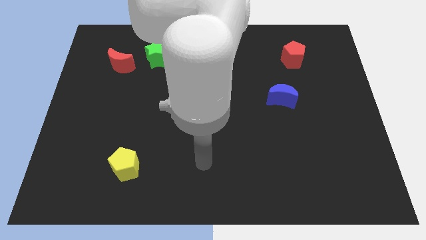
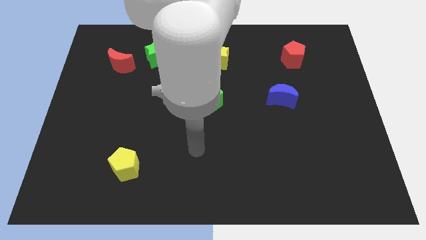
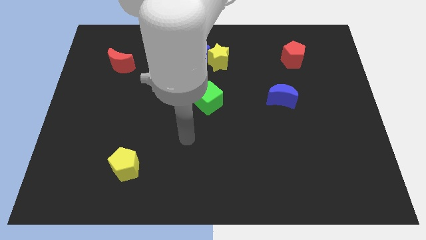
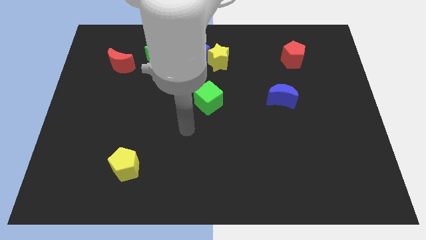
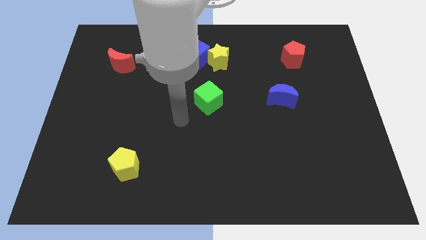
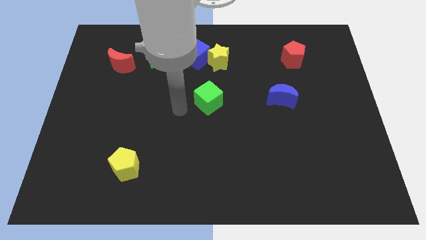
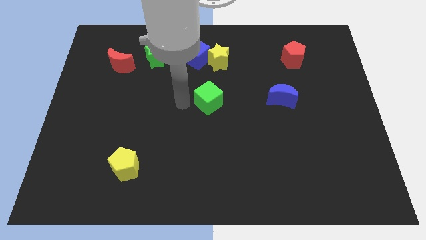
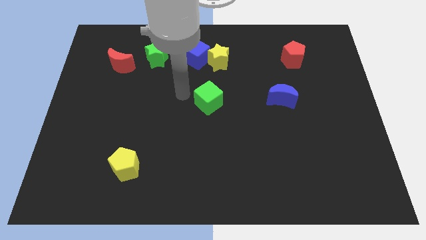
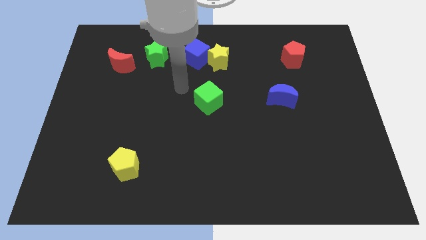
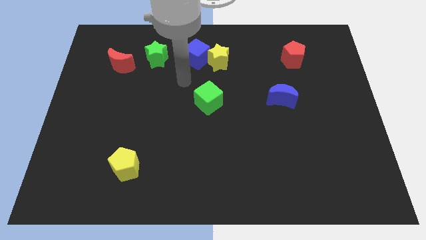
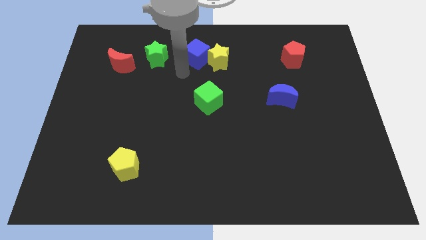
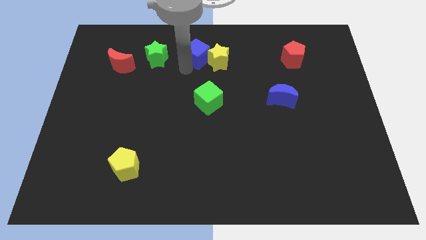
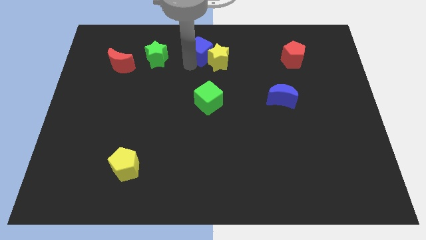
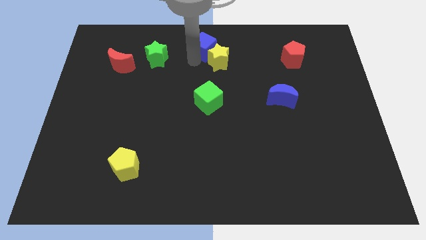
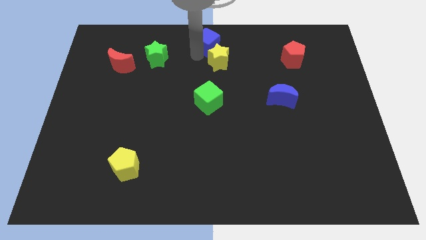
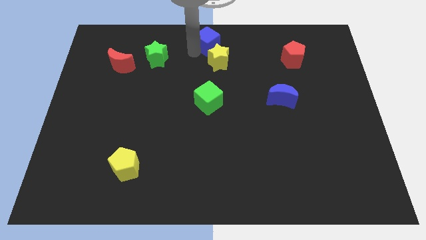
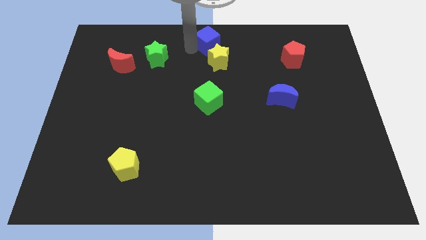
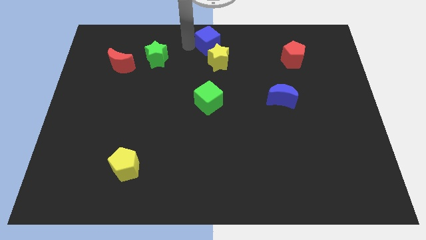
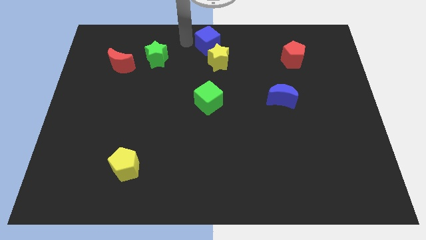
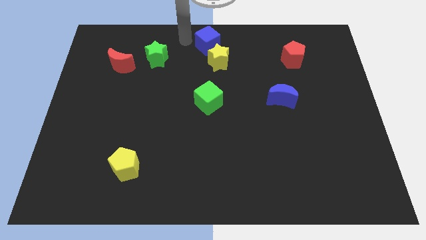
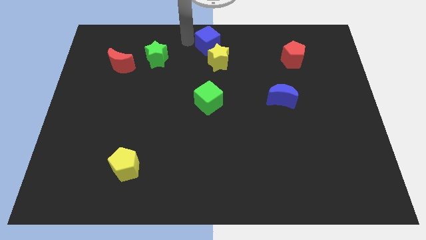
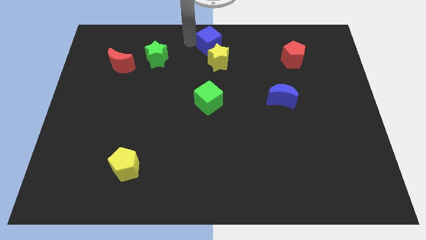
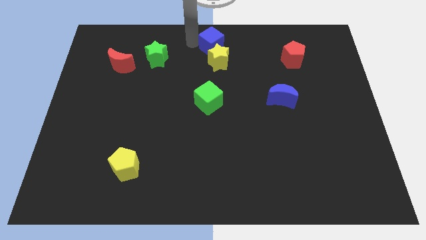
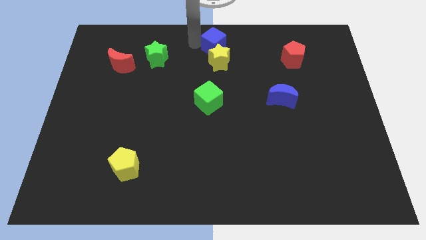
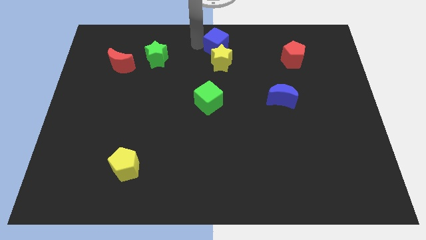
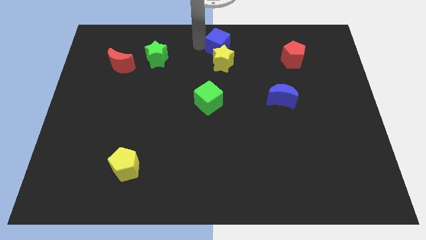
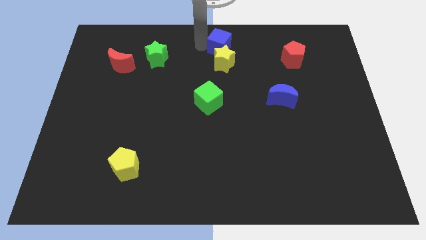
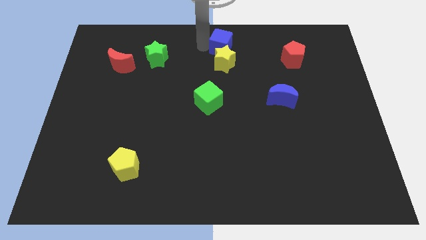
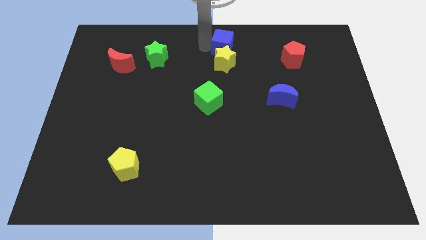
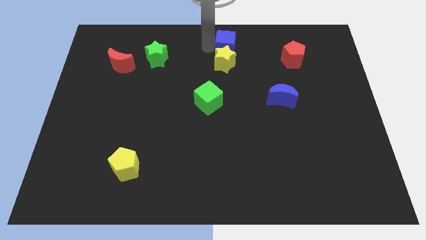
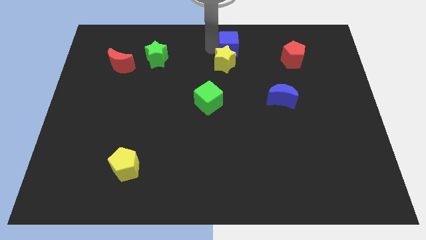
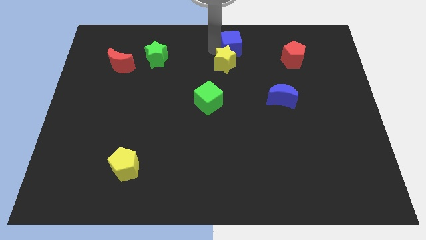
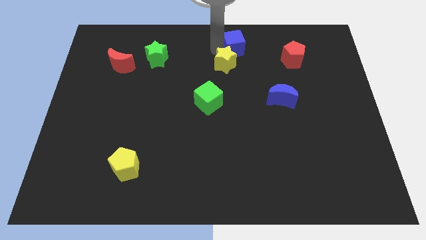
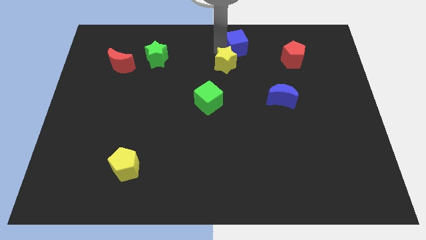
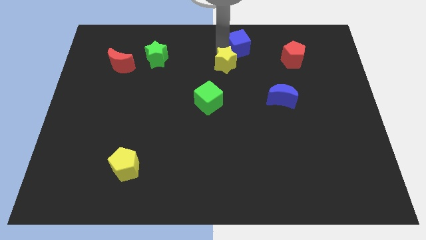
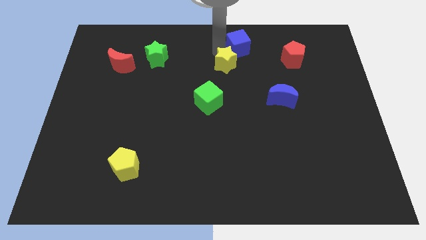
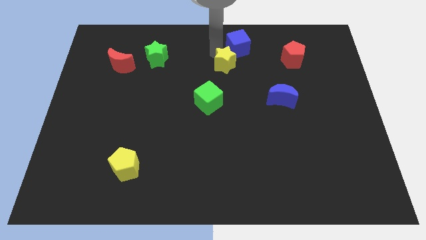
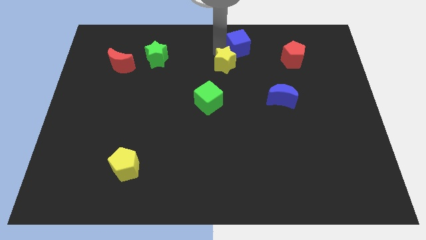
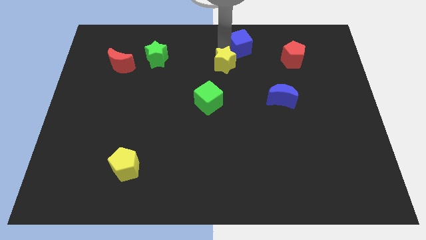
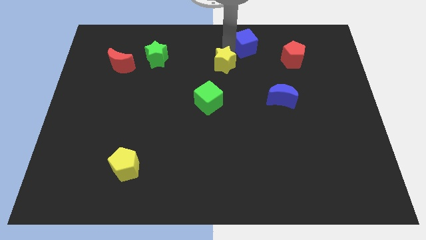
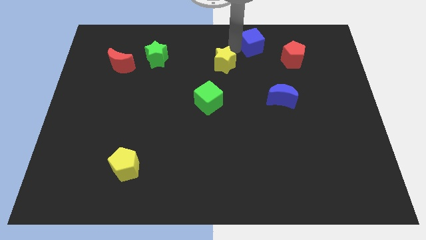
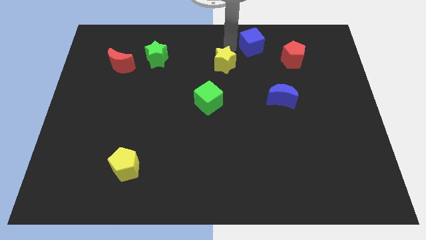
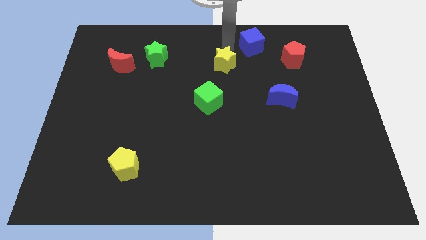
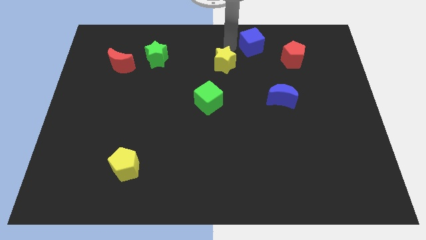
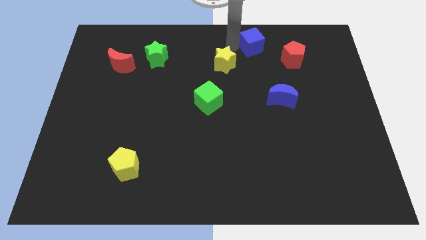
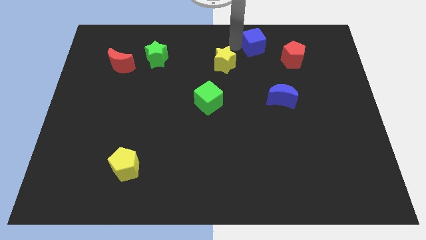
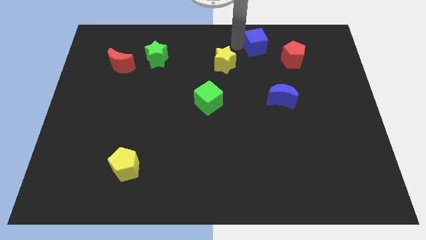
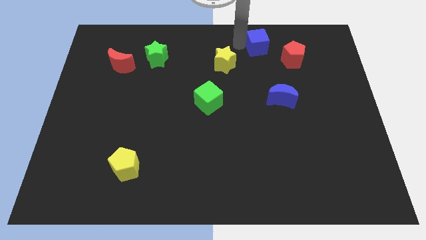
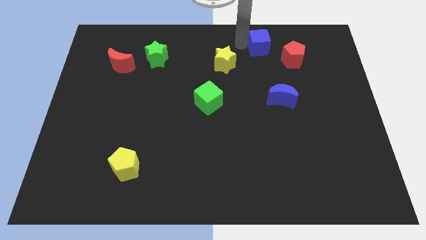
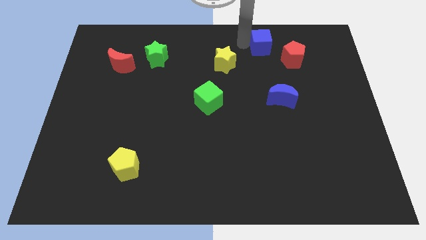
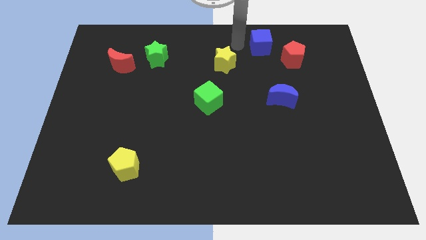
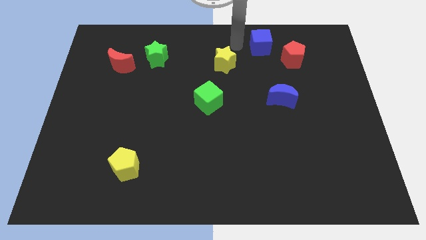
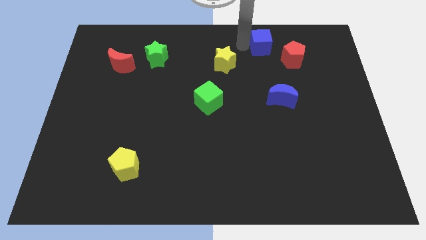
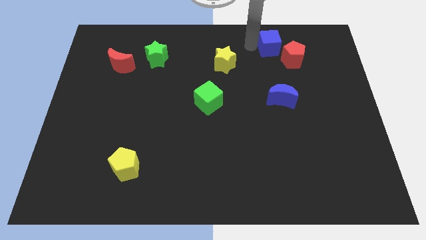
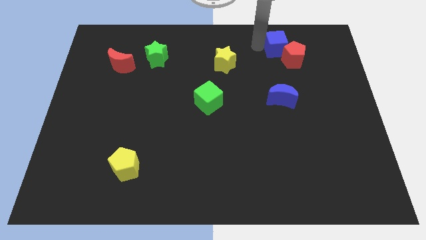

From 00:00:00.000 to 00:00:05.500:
slide the blue cube to the right

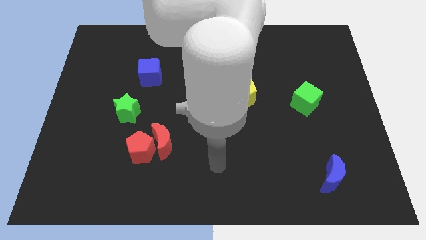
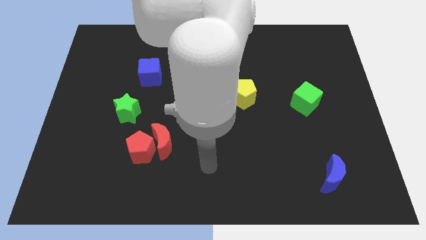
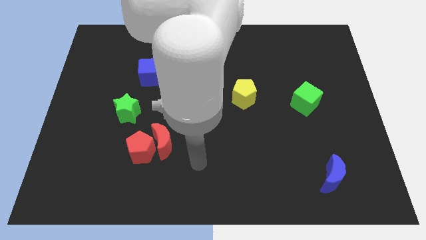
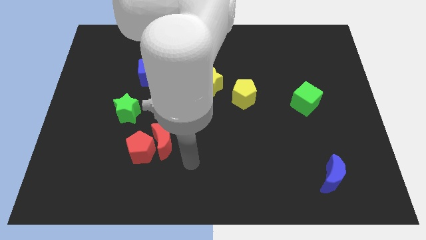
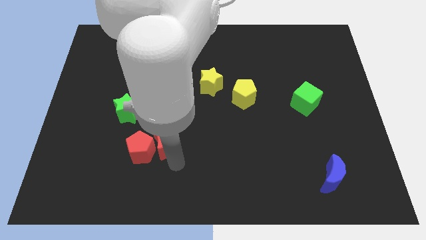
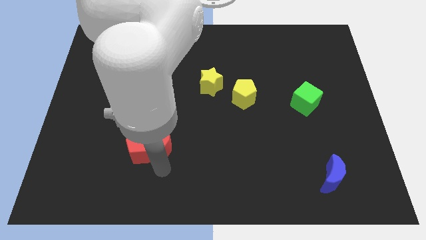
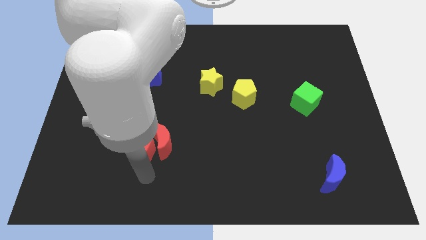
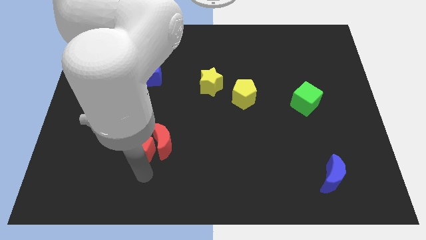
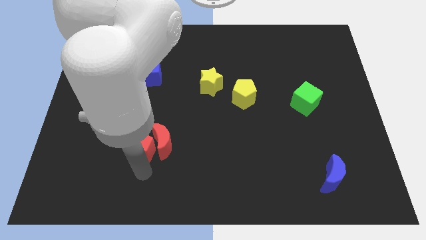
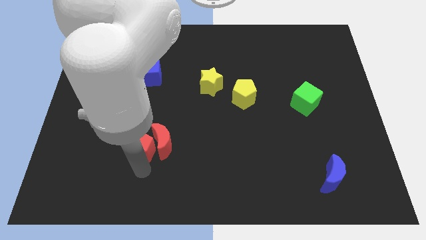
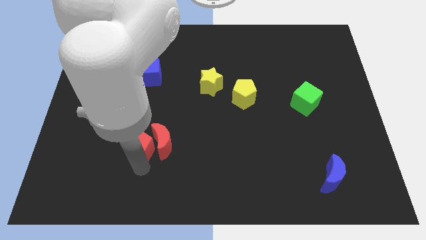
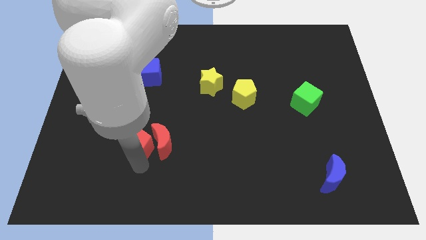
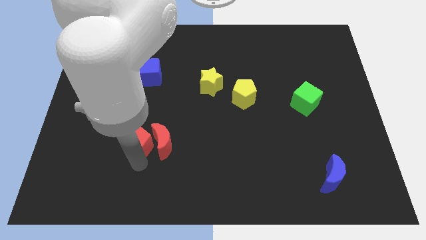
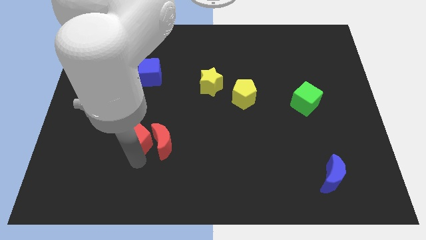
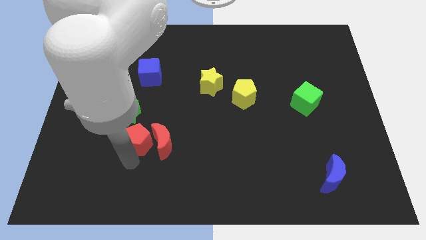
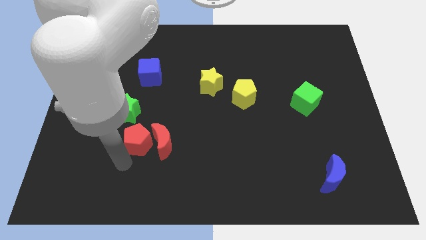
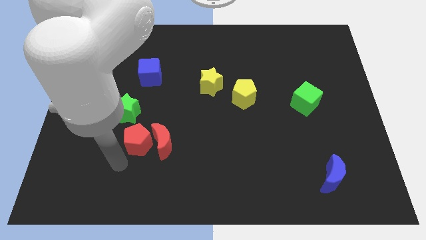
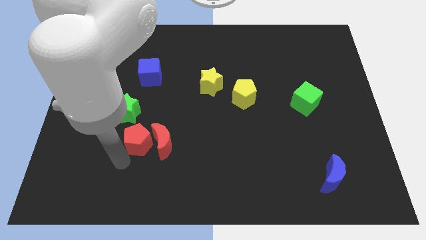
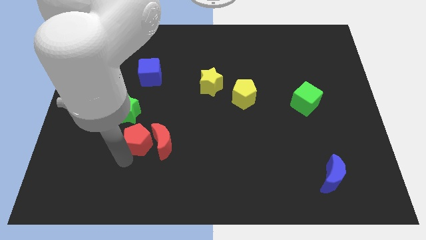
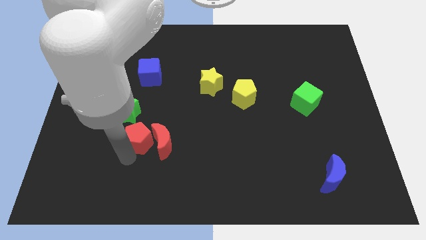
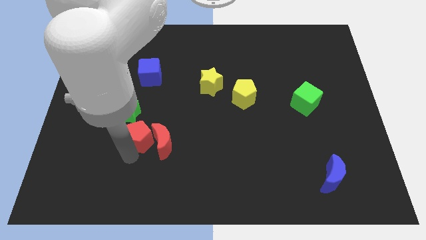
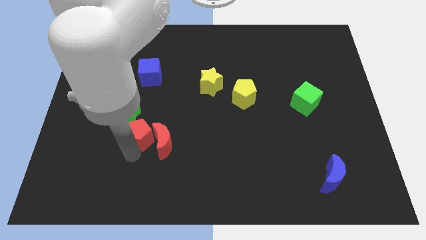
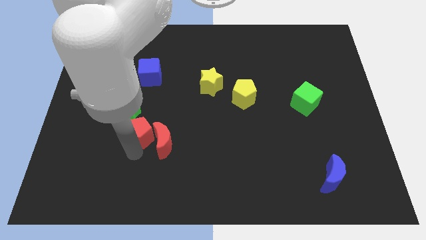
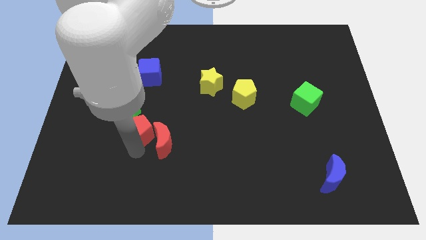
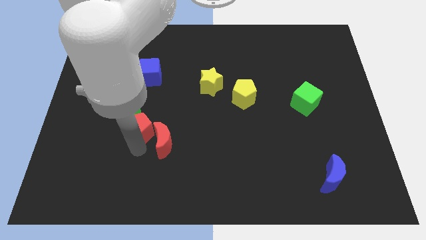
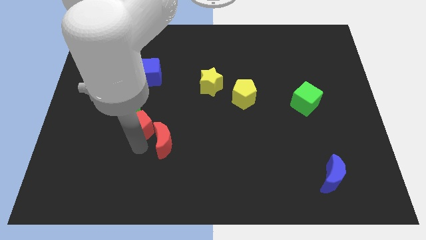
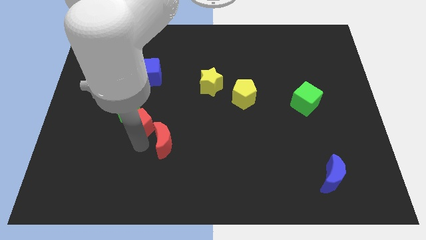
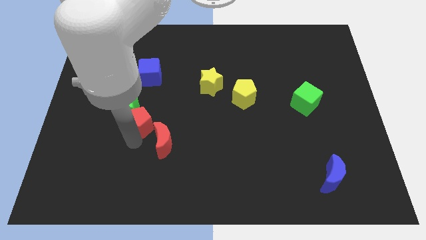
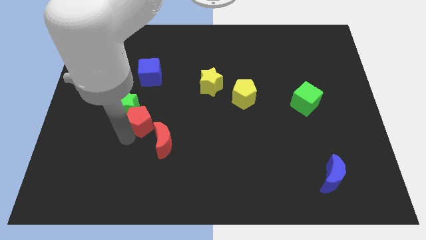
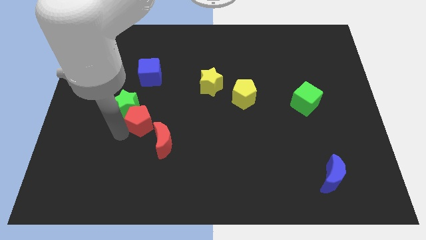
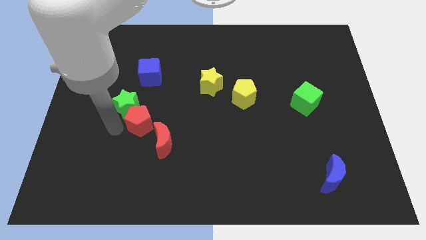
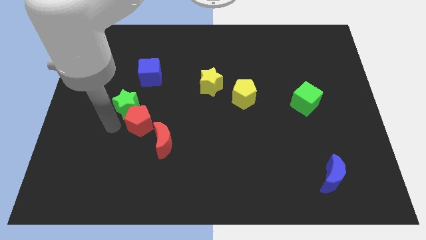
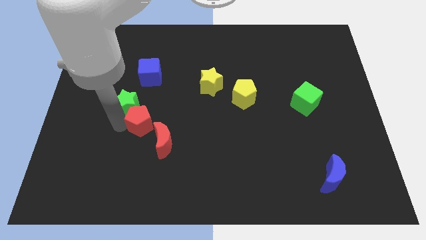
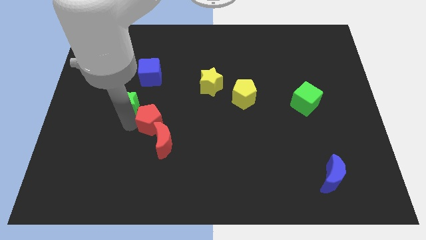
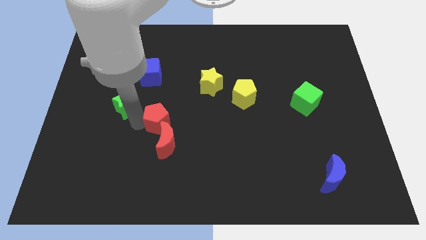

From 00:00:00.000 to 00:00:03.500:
slightly slide the red pentagon diagonally upwards and to the right
